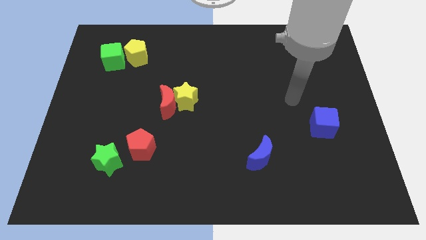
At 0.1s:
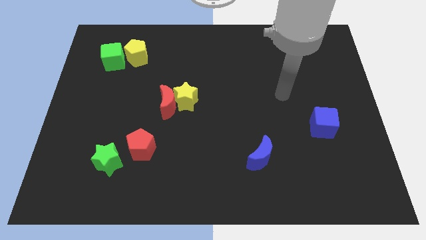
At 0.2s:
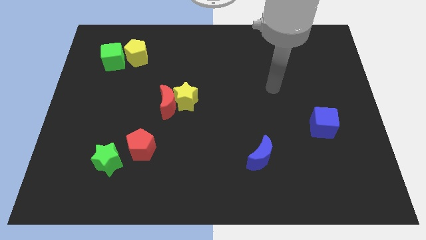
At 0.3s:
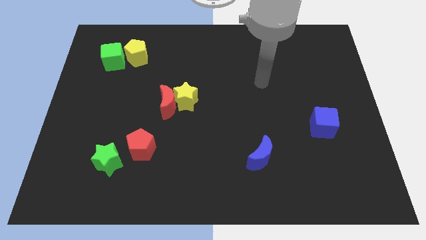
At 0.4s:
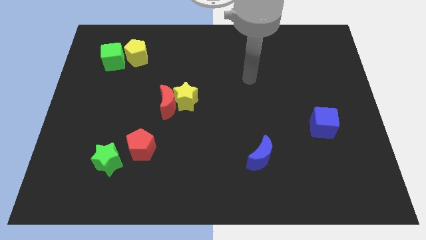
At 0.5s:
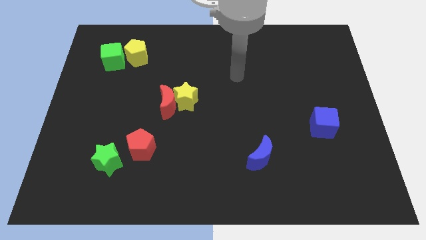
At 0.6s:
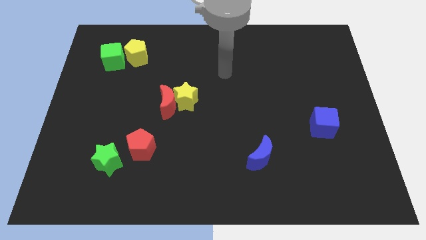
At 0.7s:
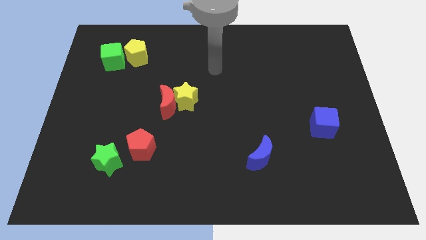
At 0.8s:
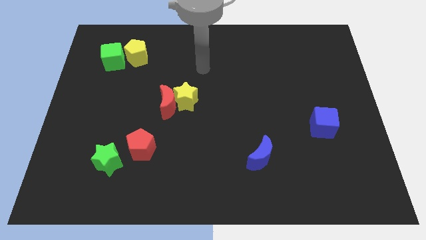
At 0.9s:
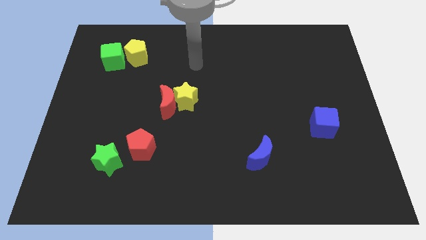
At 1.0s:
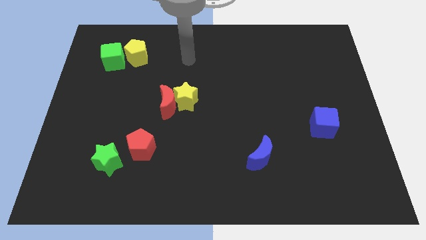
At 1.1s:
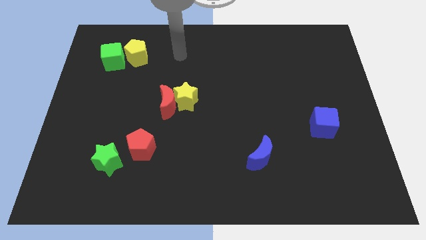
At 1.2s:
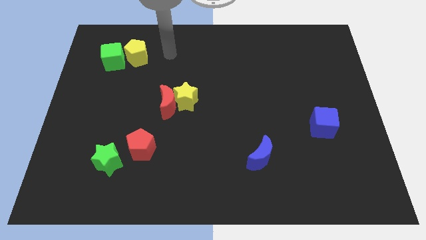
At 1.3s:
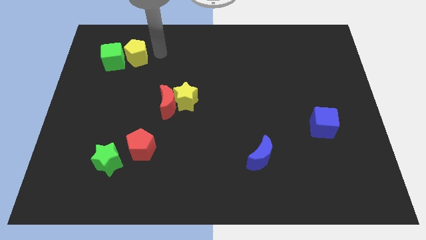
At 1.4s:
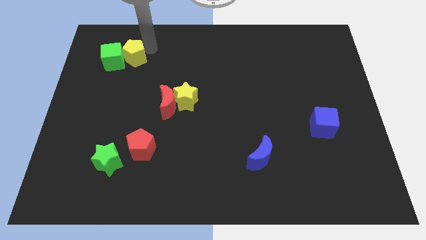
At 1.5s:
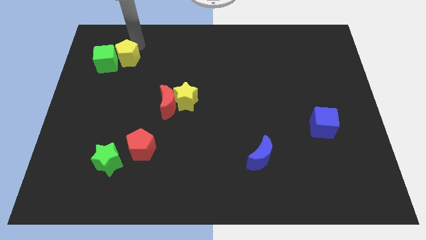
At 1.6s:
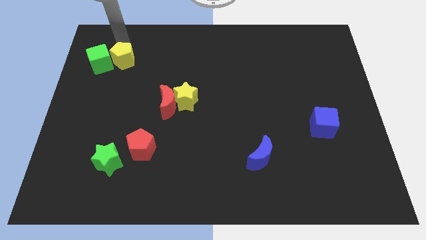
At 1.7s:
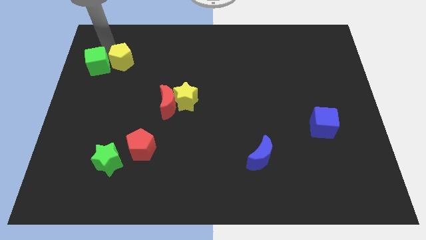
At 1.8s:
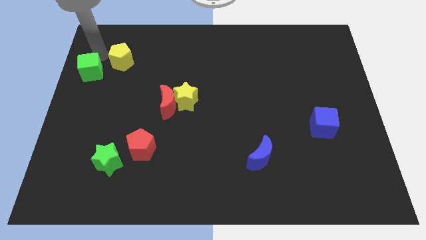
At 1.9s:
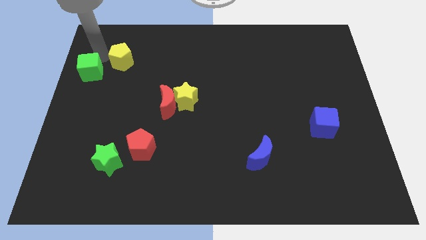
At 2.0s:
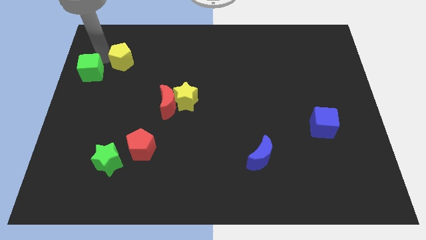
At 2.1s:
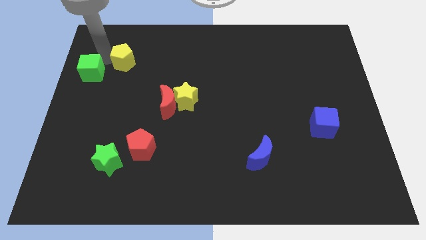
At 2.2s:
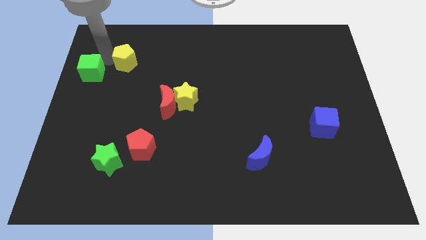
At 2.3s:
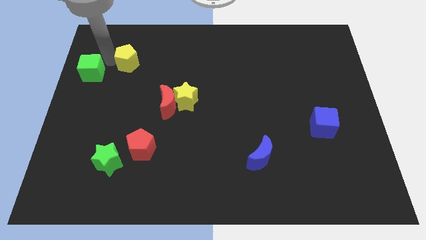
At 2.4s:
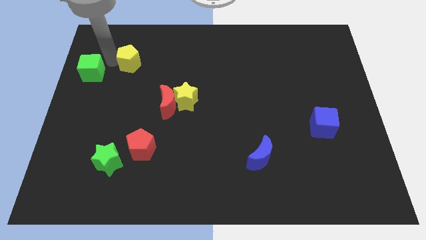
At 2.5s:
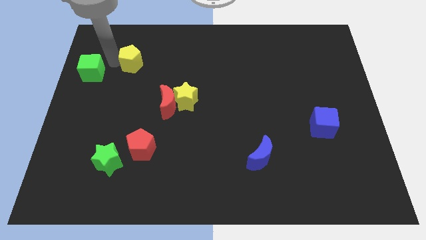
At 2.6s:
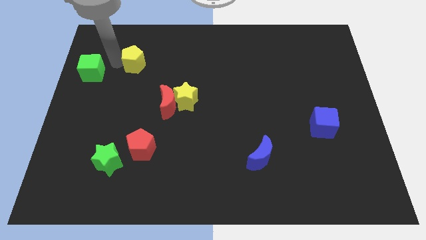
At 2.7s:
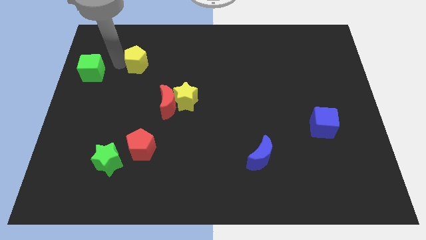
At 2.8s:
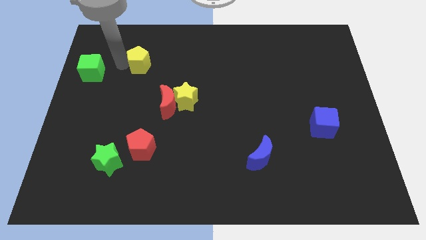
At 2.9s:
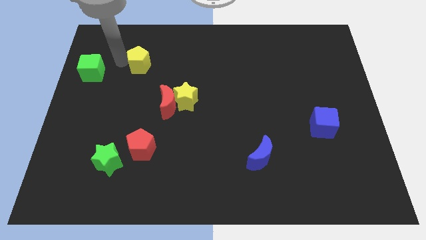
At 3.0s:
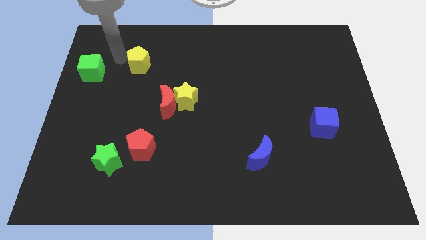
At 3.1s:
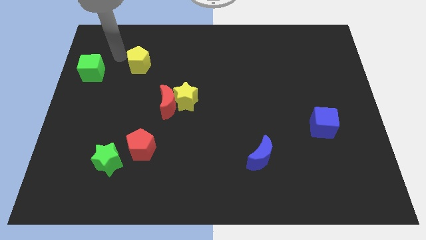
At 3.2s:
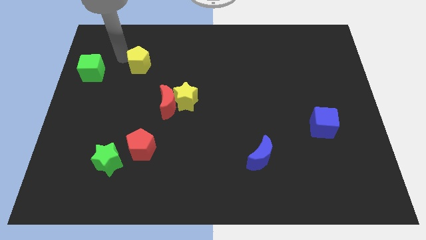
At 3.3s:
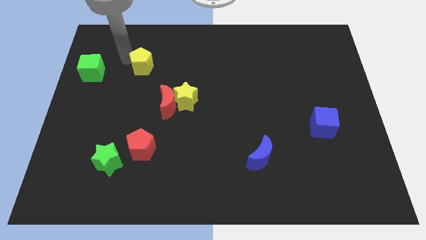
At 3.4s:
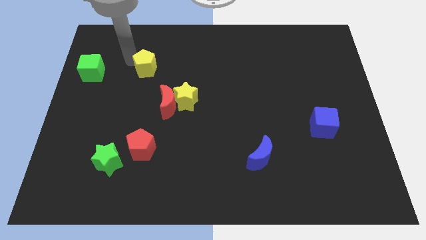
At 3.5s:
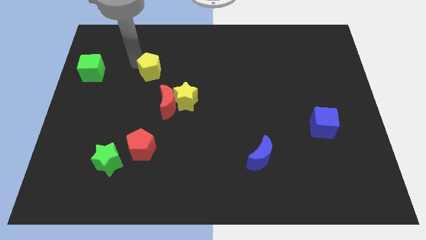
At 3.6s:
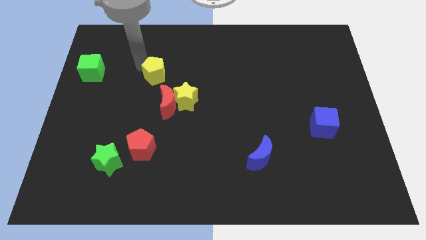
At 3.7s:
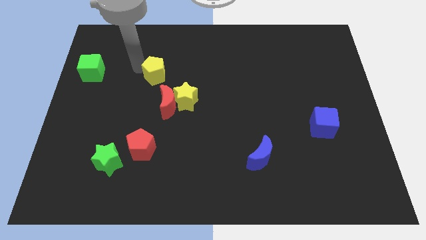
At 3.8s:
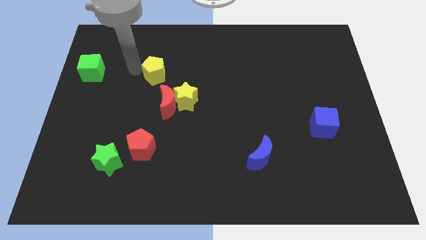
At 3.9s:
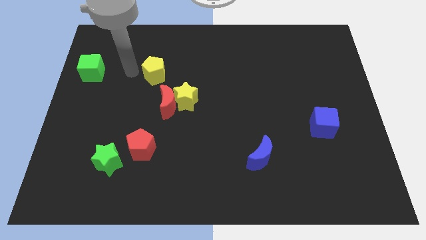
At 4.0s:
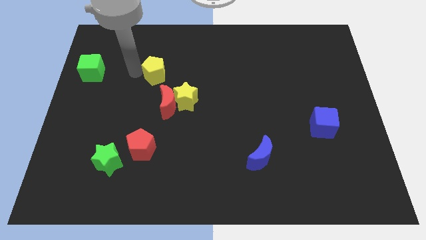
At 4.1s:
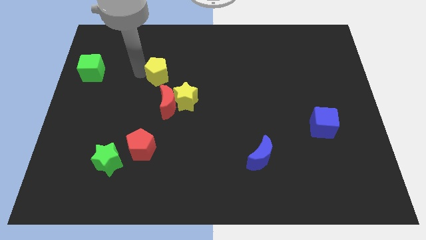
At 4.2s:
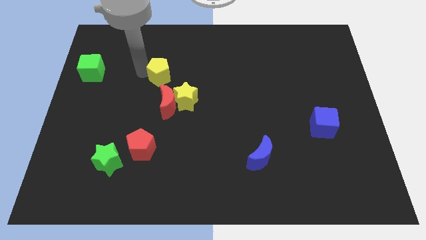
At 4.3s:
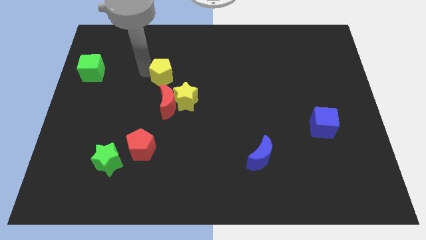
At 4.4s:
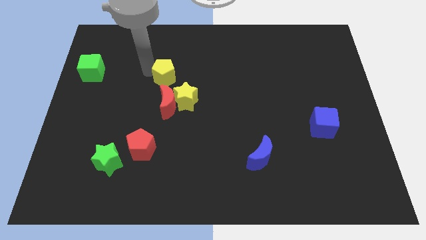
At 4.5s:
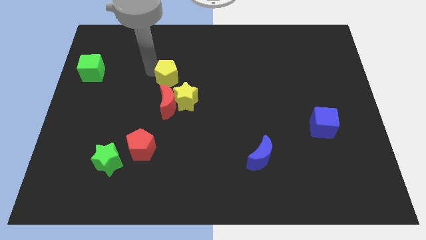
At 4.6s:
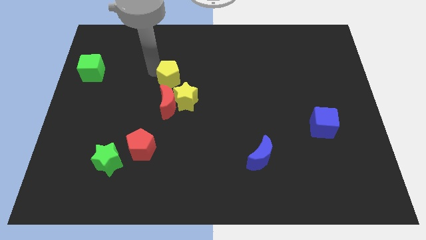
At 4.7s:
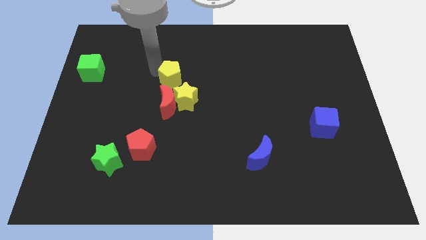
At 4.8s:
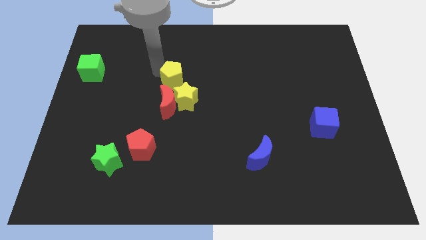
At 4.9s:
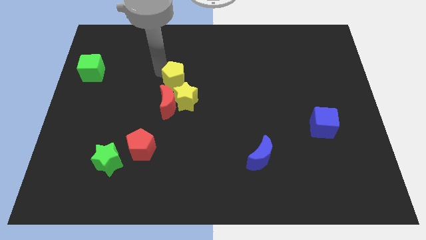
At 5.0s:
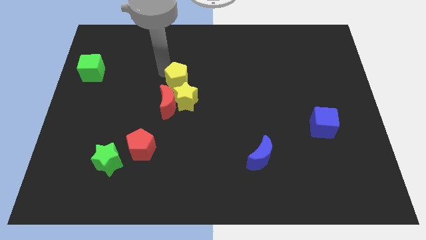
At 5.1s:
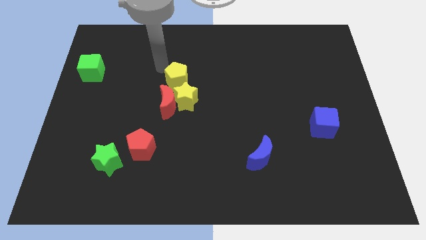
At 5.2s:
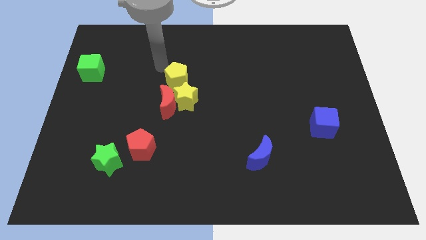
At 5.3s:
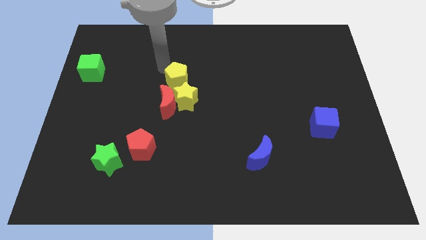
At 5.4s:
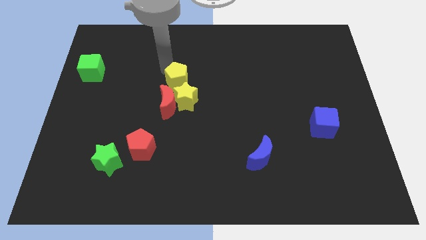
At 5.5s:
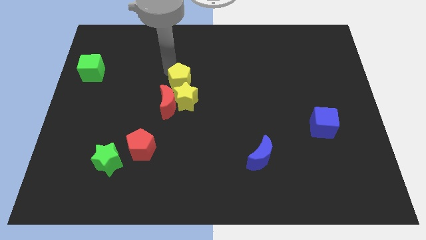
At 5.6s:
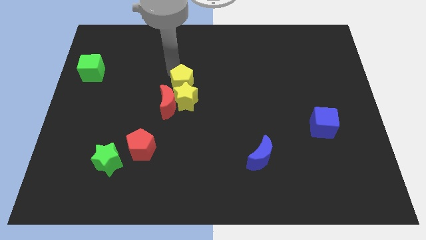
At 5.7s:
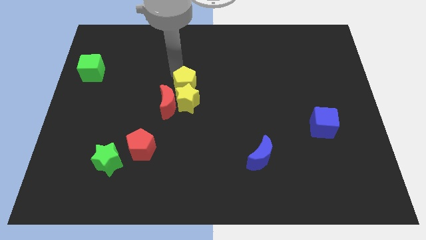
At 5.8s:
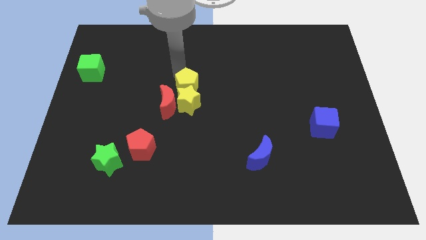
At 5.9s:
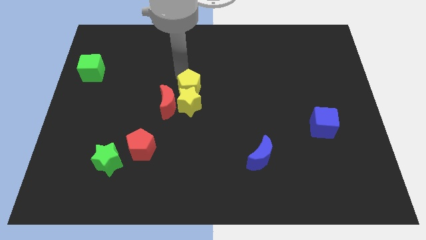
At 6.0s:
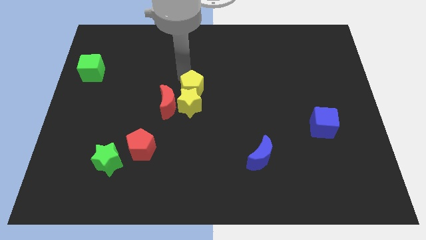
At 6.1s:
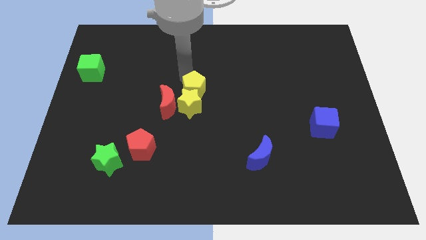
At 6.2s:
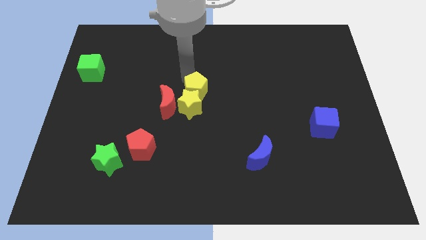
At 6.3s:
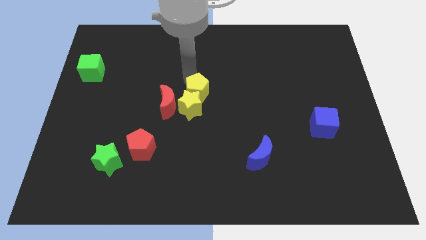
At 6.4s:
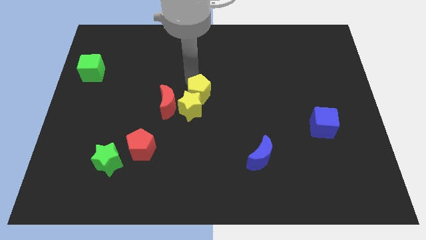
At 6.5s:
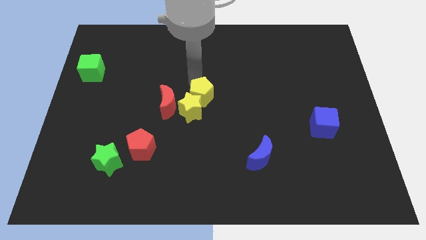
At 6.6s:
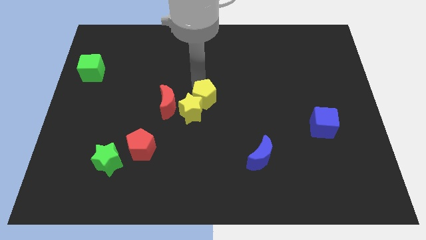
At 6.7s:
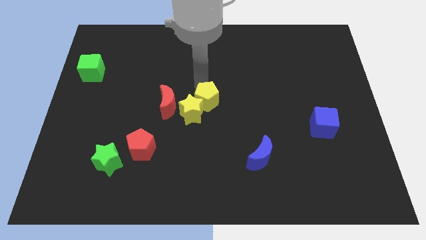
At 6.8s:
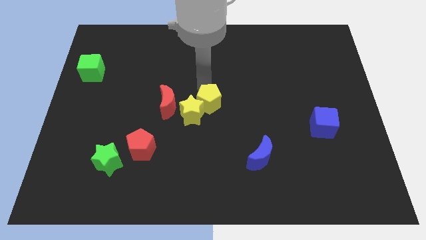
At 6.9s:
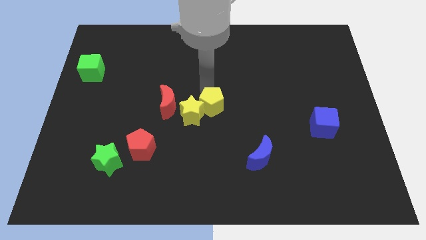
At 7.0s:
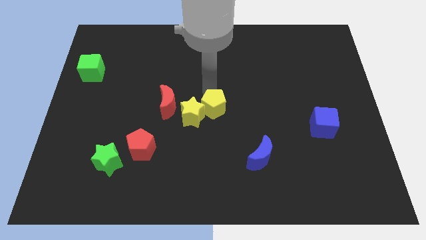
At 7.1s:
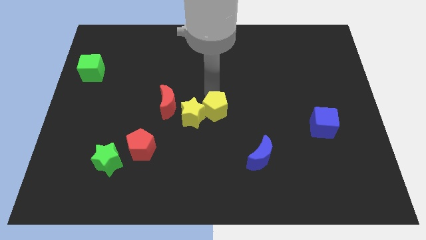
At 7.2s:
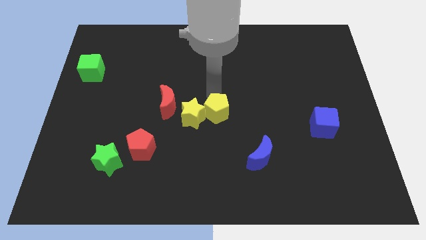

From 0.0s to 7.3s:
slide the yellow pentagon diagonally down and to the right of the yellow star

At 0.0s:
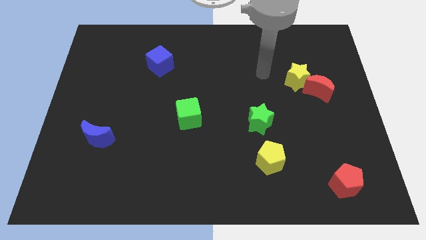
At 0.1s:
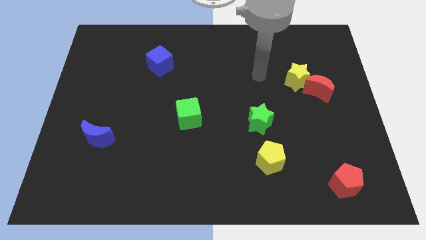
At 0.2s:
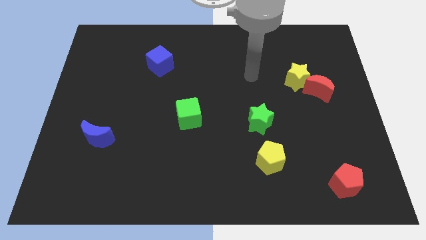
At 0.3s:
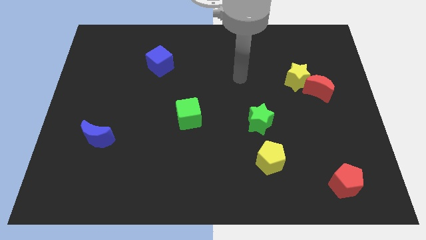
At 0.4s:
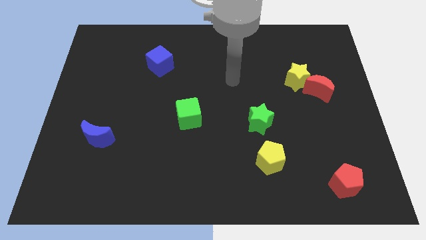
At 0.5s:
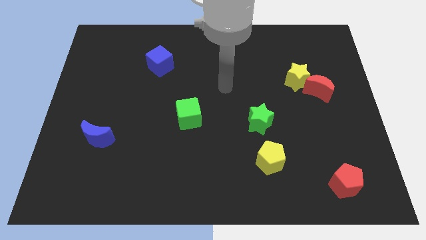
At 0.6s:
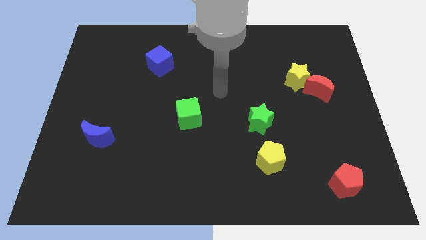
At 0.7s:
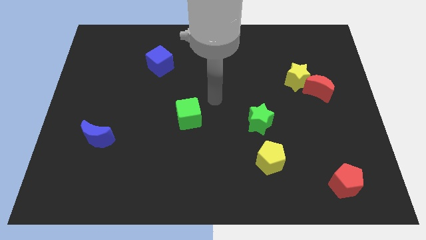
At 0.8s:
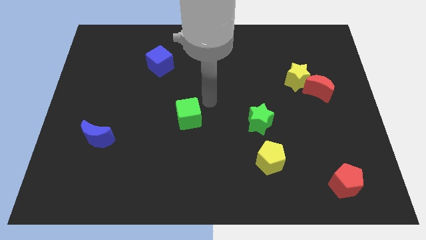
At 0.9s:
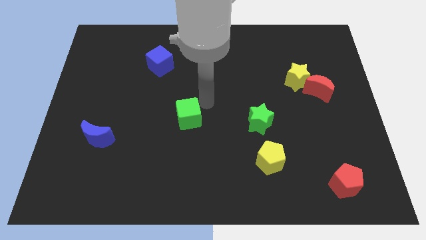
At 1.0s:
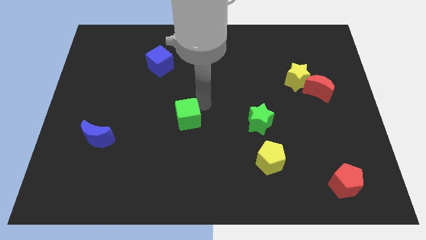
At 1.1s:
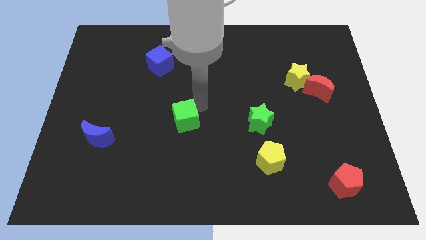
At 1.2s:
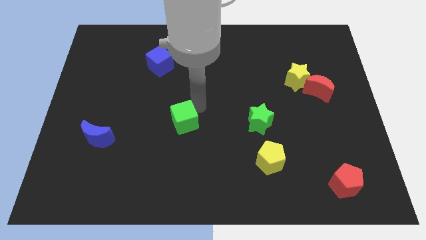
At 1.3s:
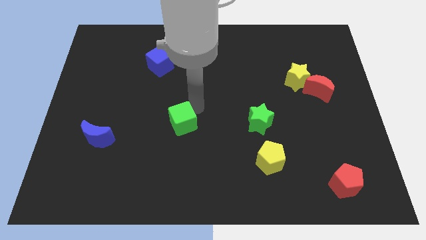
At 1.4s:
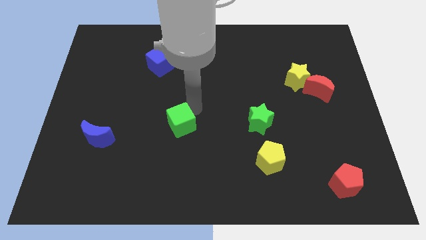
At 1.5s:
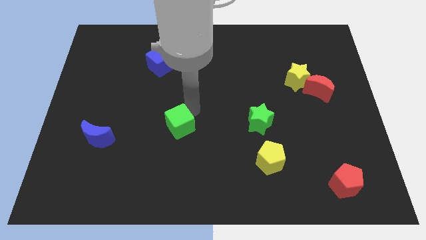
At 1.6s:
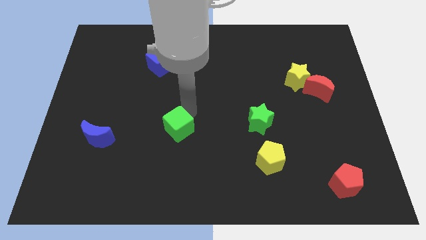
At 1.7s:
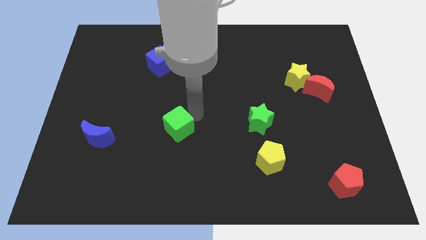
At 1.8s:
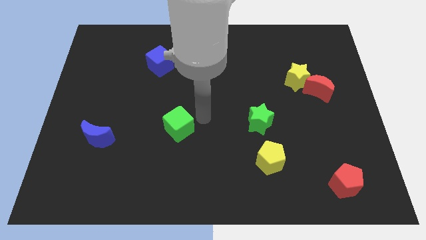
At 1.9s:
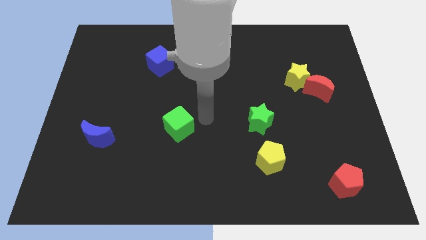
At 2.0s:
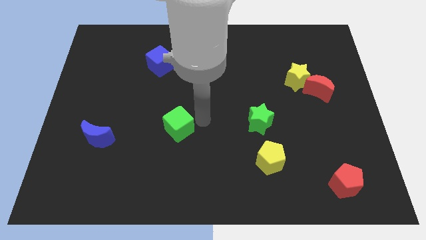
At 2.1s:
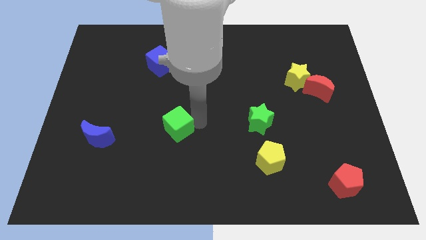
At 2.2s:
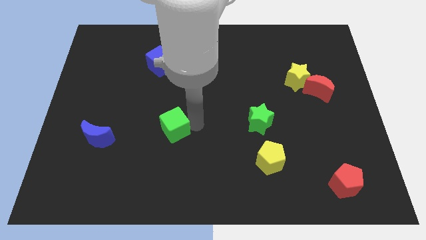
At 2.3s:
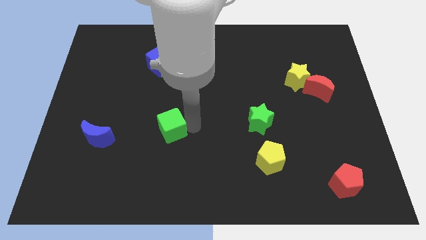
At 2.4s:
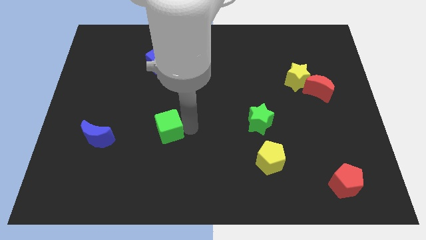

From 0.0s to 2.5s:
slide the green cube just right of the blue moon
